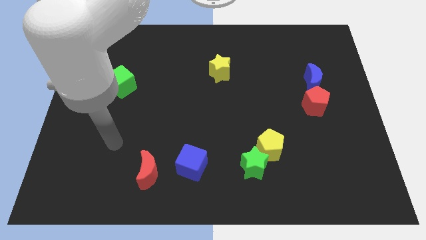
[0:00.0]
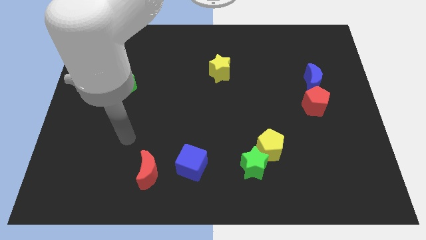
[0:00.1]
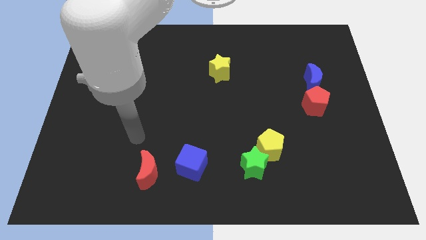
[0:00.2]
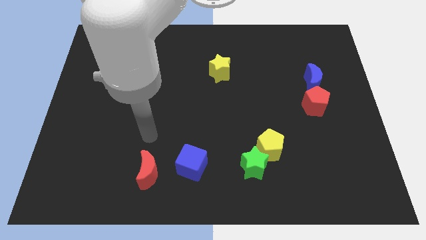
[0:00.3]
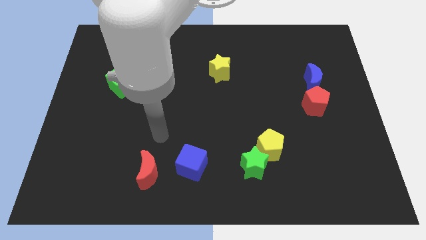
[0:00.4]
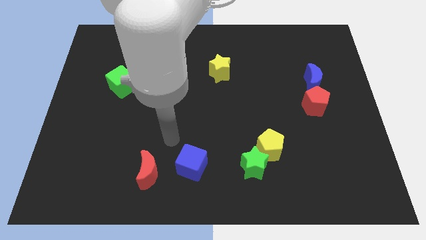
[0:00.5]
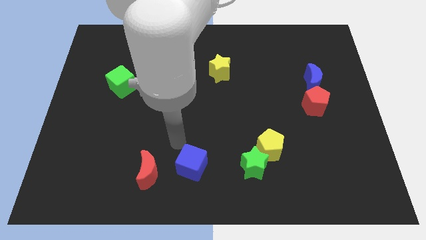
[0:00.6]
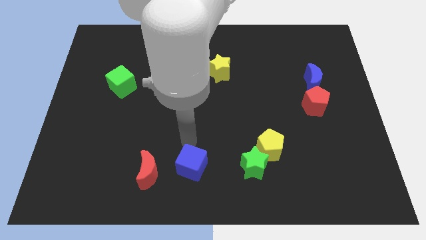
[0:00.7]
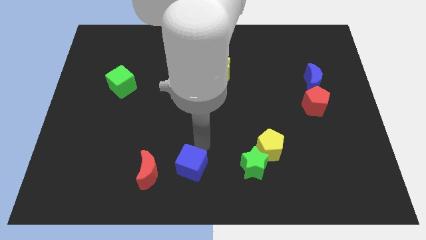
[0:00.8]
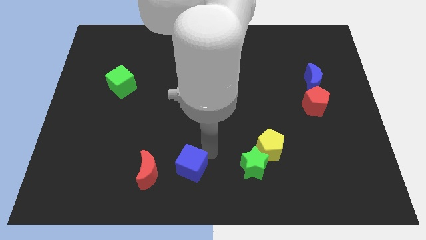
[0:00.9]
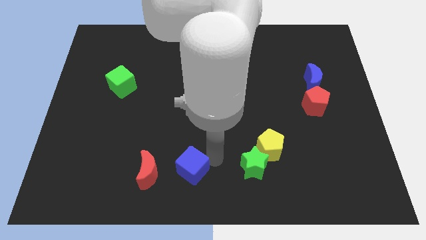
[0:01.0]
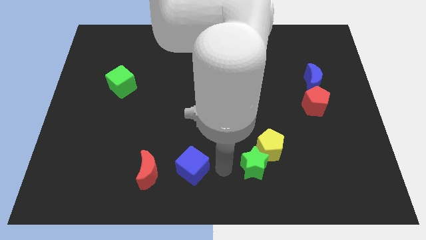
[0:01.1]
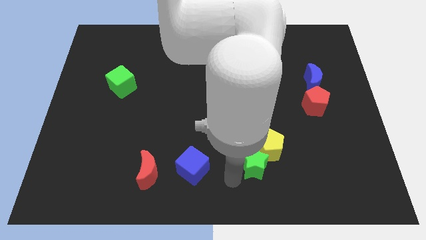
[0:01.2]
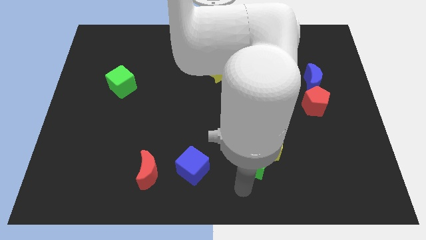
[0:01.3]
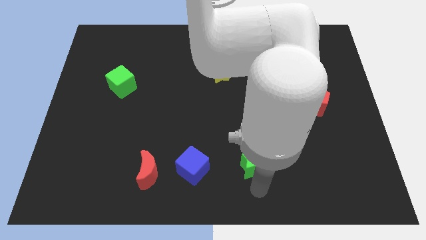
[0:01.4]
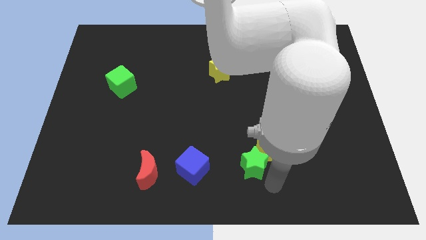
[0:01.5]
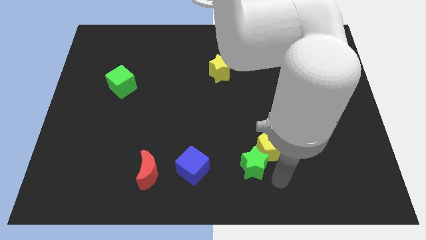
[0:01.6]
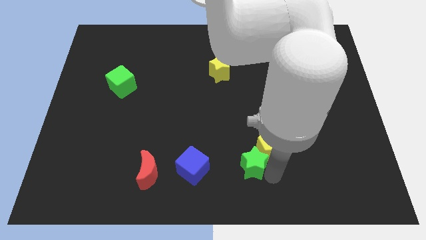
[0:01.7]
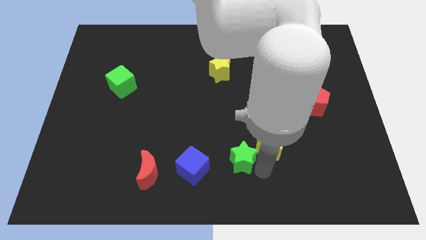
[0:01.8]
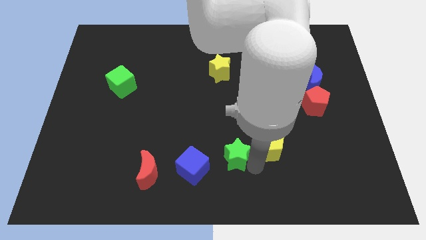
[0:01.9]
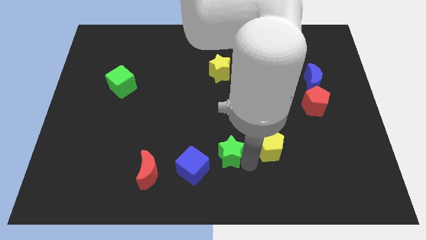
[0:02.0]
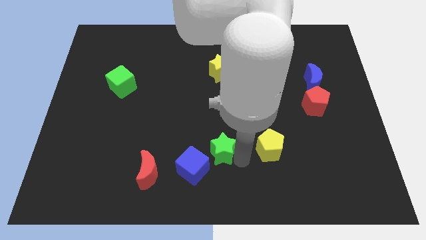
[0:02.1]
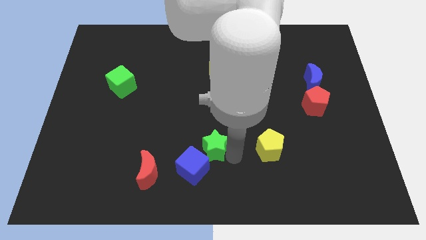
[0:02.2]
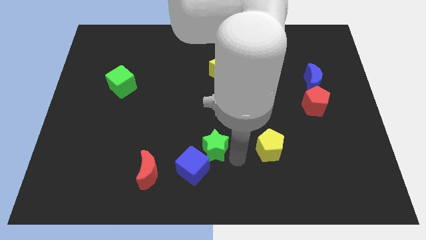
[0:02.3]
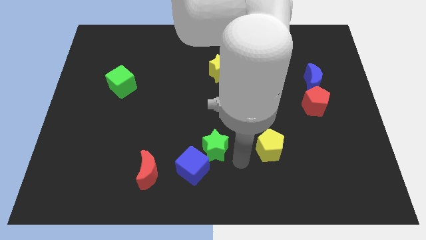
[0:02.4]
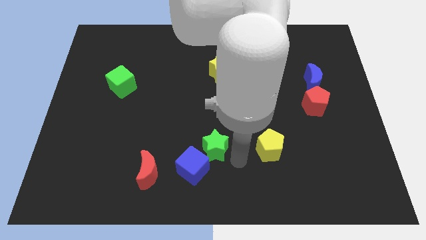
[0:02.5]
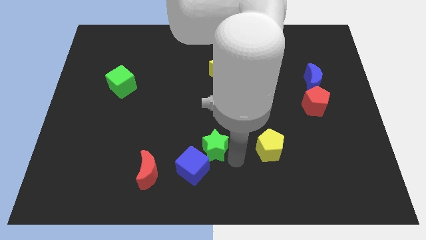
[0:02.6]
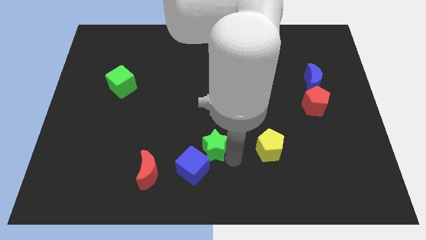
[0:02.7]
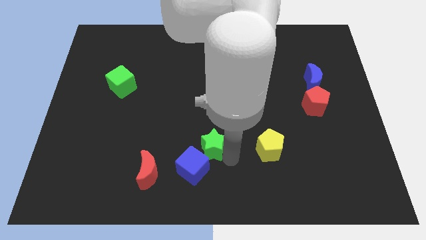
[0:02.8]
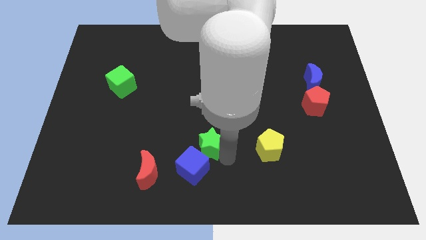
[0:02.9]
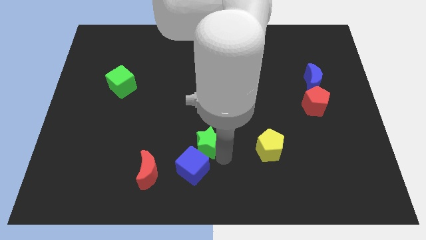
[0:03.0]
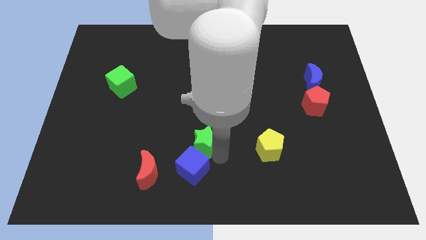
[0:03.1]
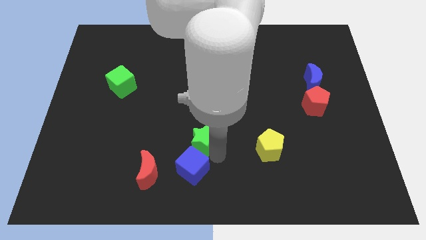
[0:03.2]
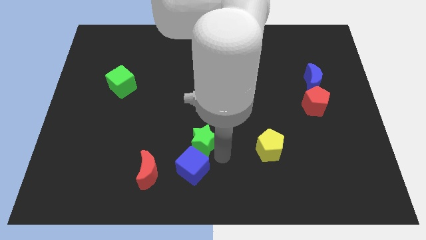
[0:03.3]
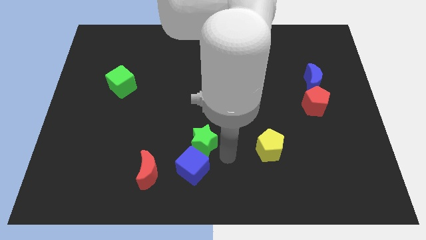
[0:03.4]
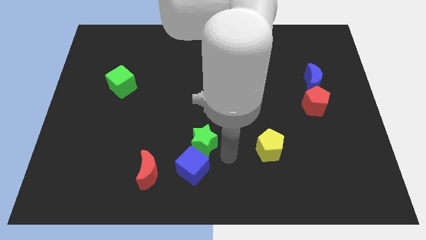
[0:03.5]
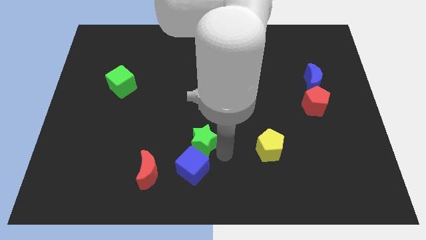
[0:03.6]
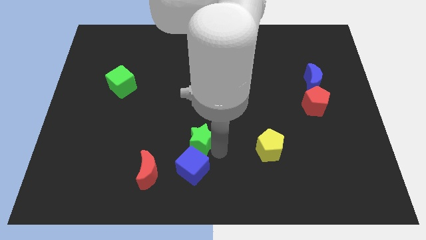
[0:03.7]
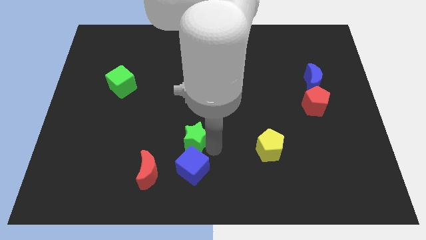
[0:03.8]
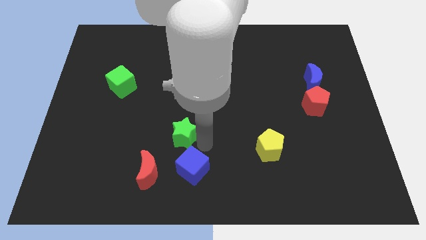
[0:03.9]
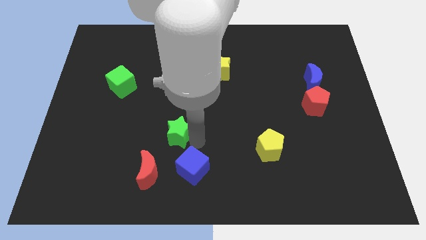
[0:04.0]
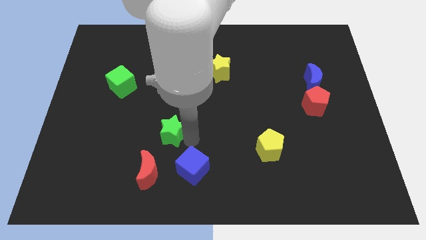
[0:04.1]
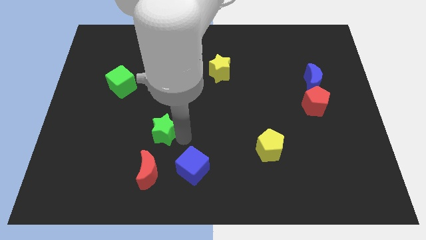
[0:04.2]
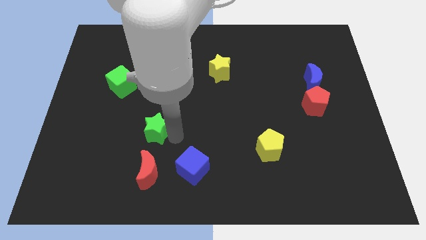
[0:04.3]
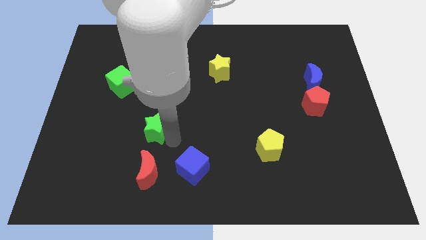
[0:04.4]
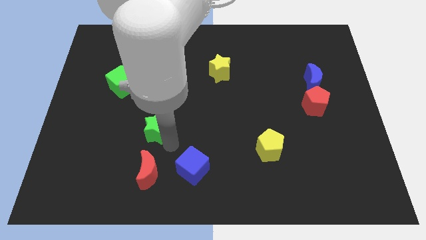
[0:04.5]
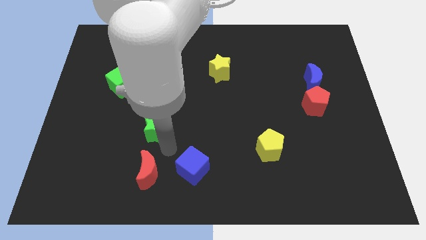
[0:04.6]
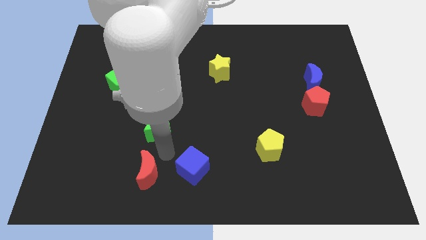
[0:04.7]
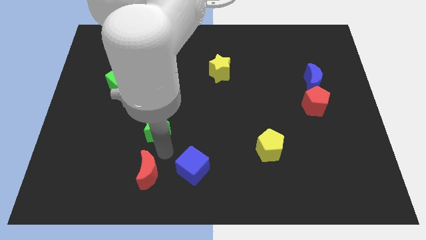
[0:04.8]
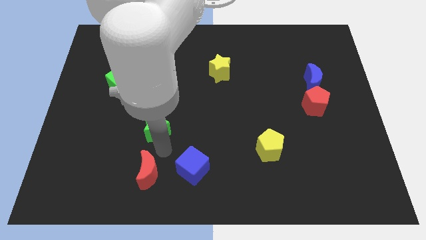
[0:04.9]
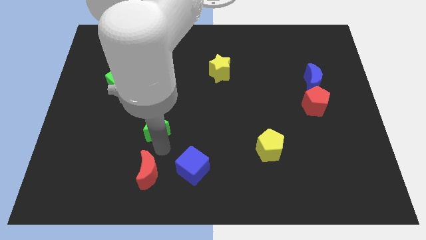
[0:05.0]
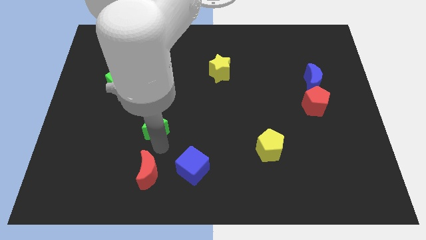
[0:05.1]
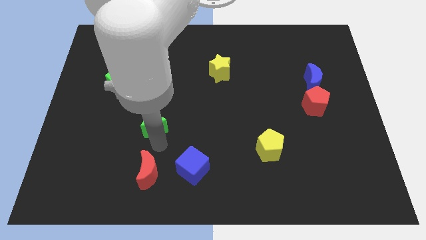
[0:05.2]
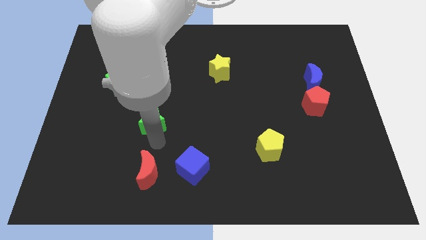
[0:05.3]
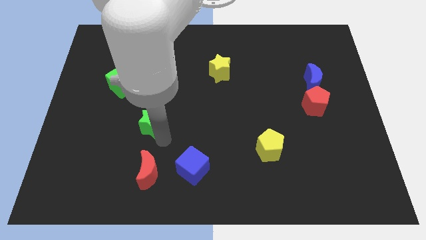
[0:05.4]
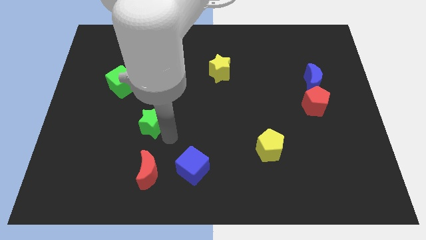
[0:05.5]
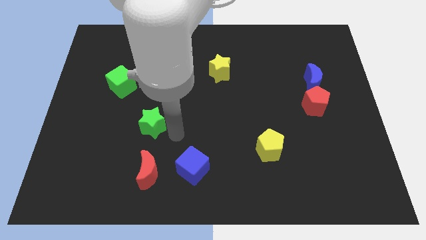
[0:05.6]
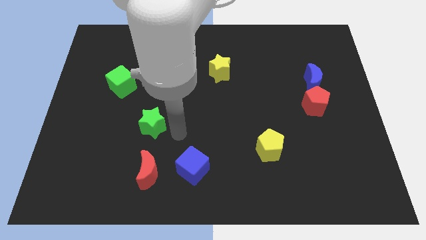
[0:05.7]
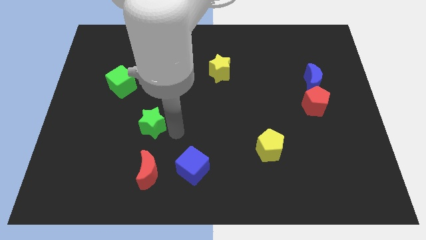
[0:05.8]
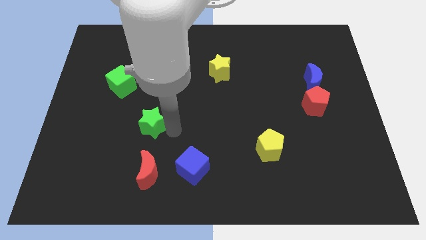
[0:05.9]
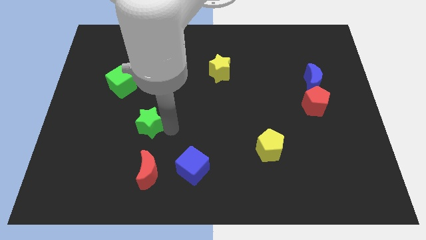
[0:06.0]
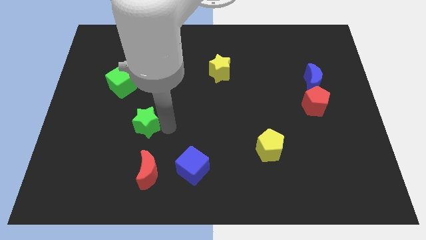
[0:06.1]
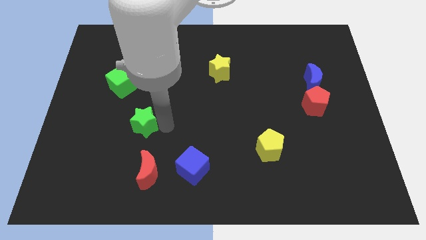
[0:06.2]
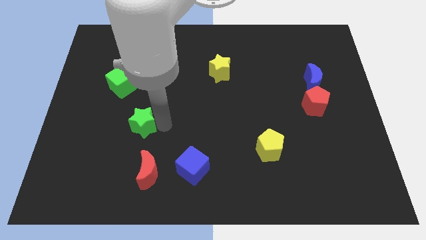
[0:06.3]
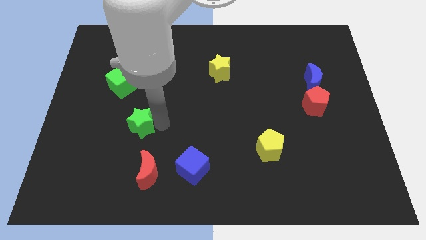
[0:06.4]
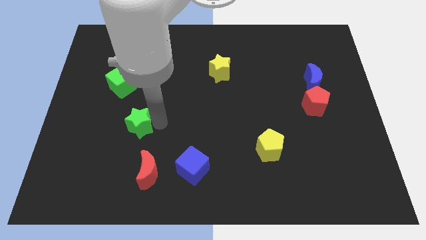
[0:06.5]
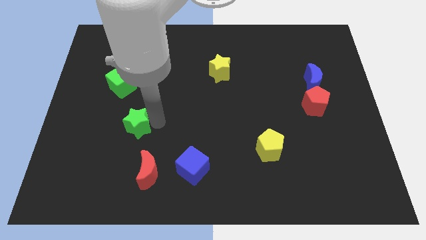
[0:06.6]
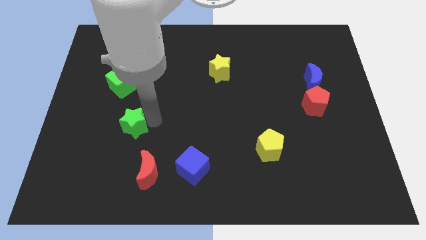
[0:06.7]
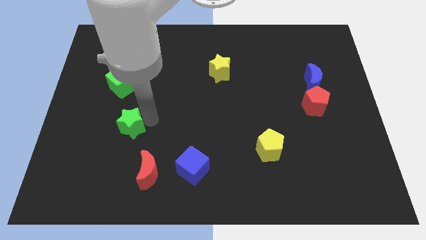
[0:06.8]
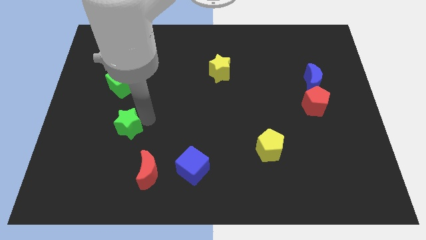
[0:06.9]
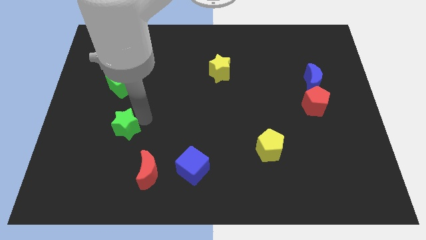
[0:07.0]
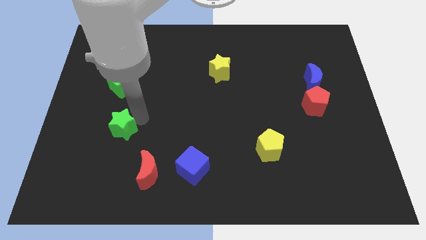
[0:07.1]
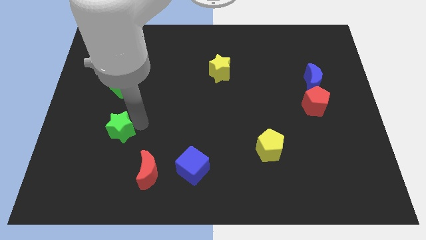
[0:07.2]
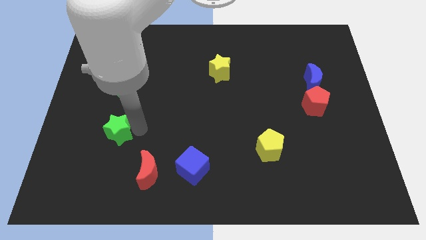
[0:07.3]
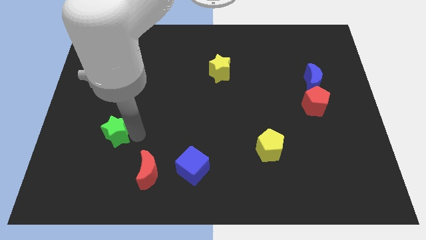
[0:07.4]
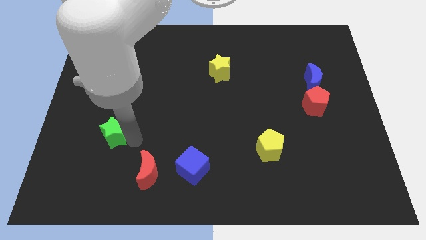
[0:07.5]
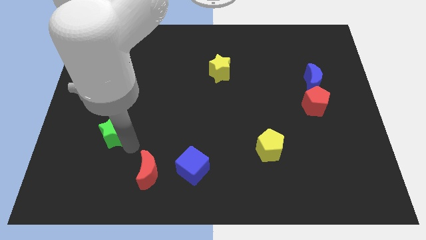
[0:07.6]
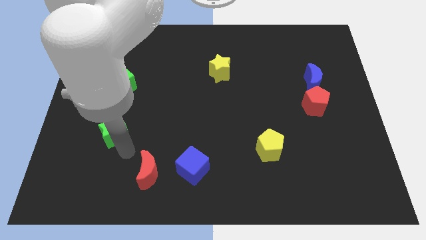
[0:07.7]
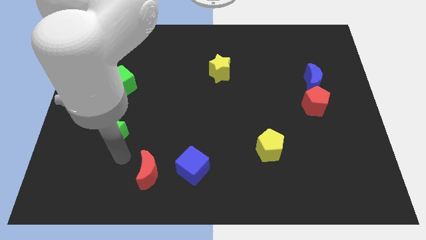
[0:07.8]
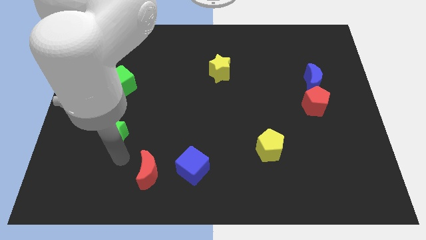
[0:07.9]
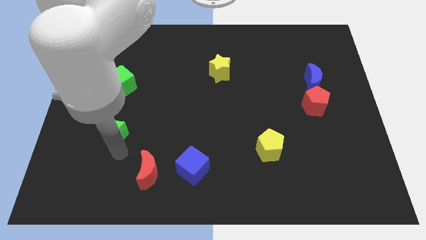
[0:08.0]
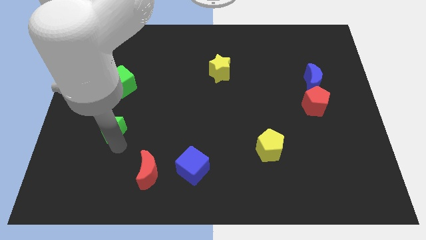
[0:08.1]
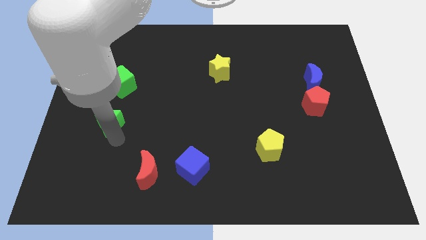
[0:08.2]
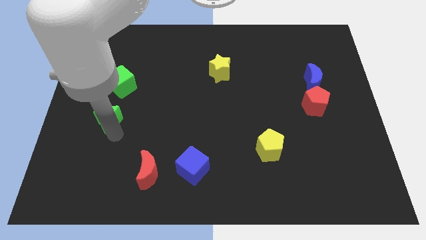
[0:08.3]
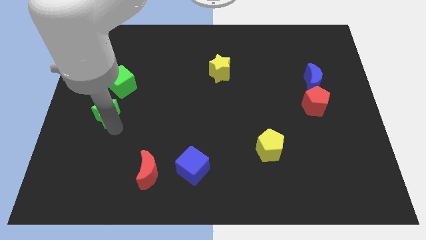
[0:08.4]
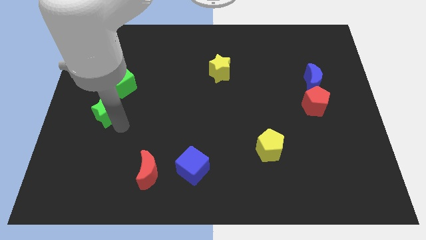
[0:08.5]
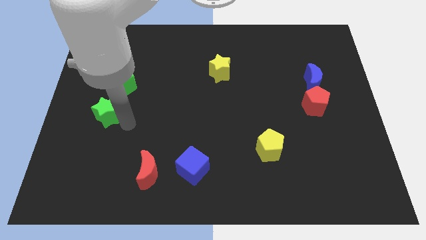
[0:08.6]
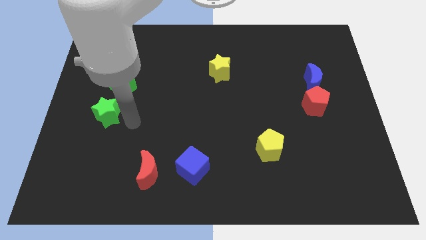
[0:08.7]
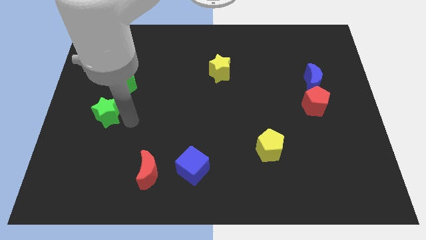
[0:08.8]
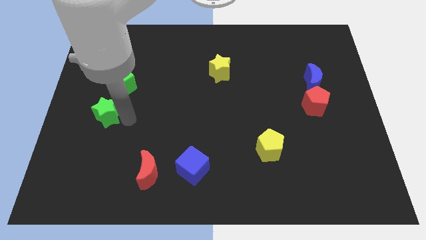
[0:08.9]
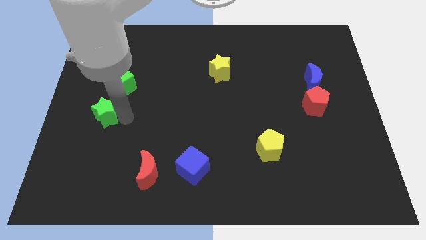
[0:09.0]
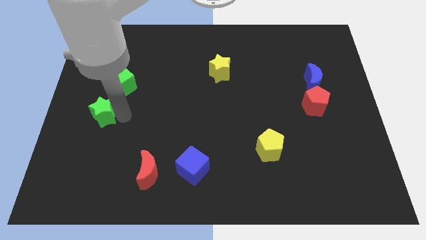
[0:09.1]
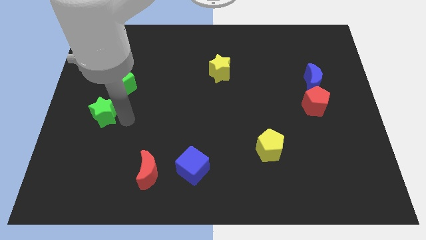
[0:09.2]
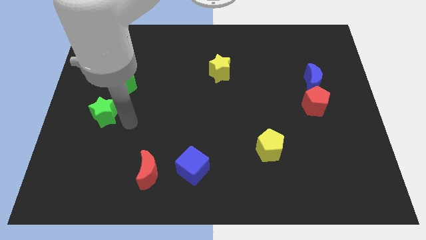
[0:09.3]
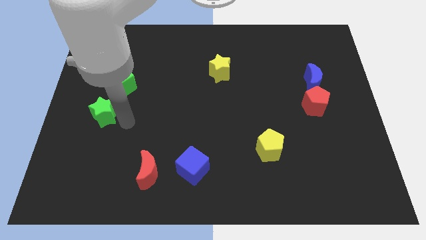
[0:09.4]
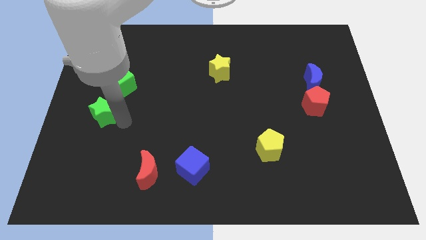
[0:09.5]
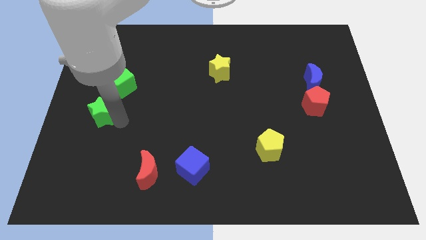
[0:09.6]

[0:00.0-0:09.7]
push the green star to the left side
